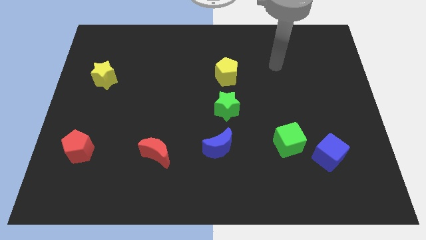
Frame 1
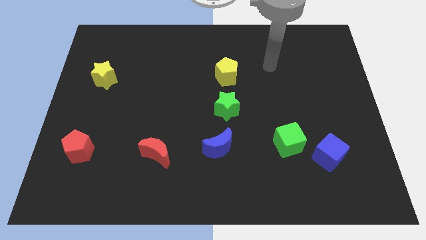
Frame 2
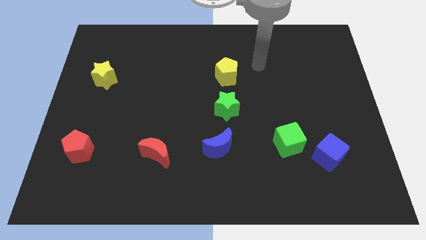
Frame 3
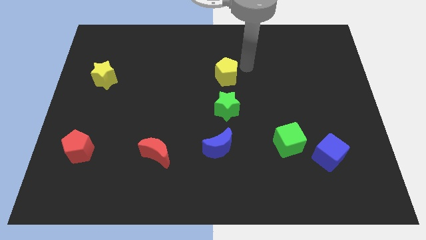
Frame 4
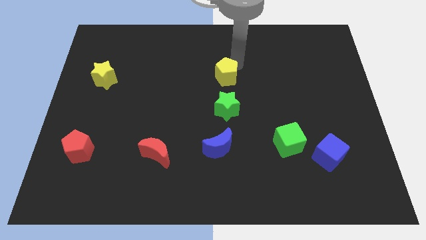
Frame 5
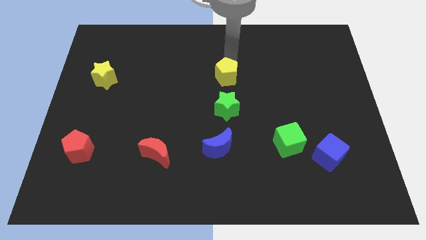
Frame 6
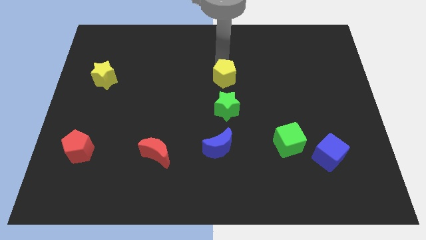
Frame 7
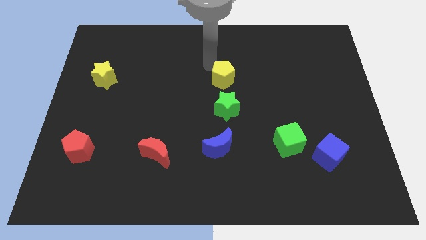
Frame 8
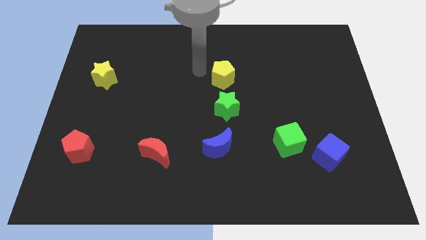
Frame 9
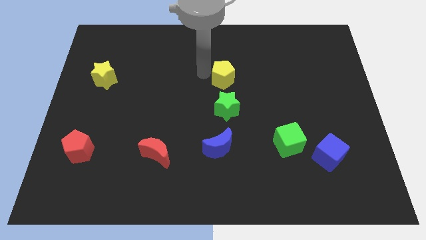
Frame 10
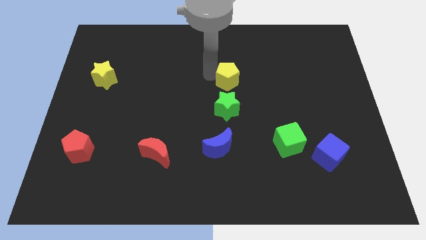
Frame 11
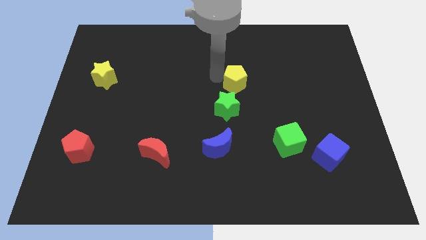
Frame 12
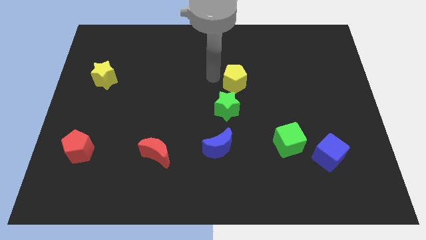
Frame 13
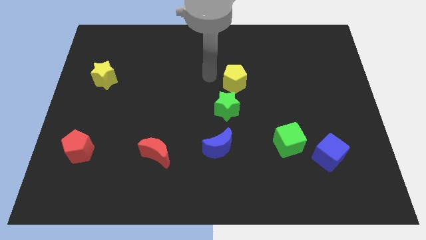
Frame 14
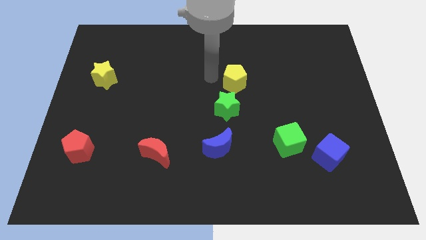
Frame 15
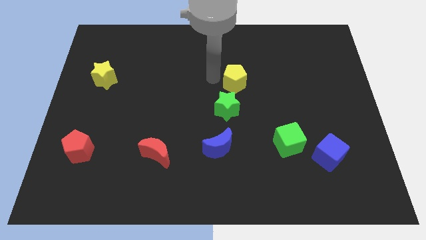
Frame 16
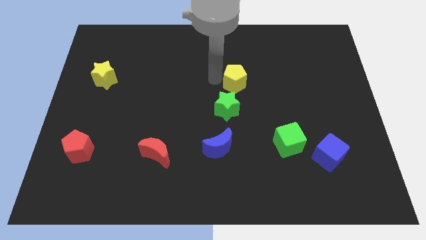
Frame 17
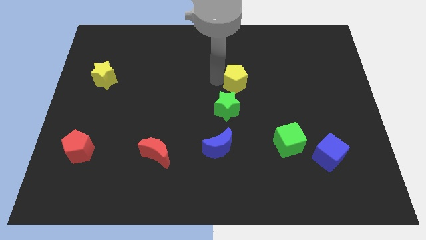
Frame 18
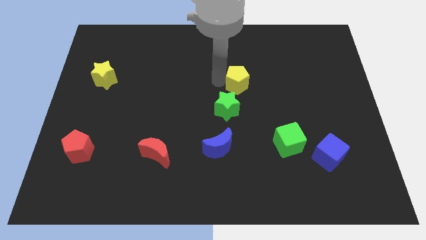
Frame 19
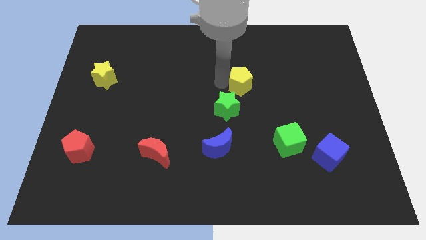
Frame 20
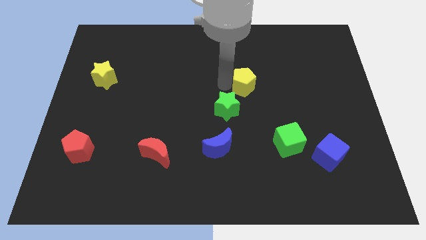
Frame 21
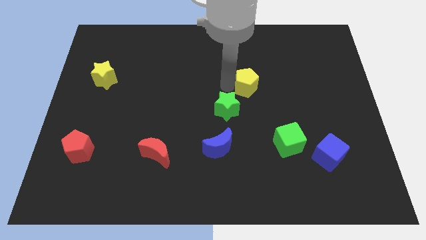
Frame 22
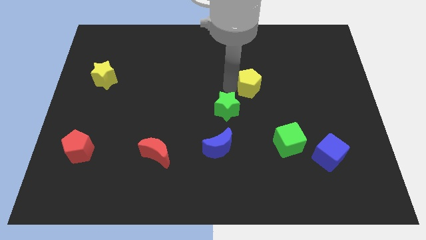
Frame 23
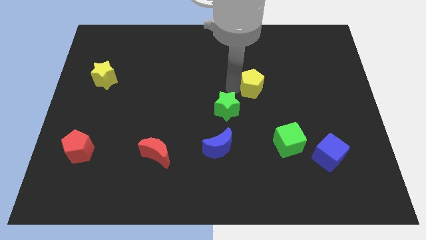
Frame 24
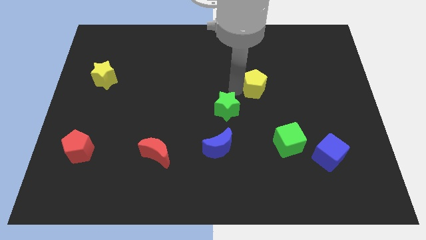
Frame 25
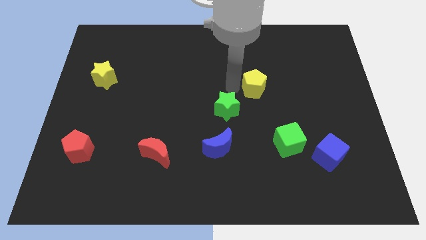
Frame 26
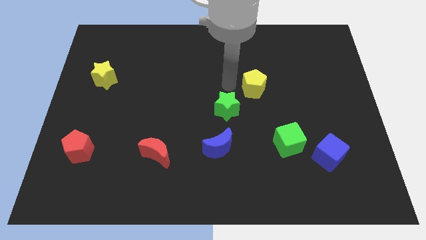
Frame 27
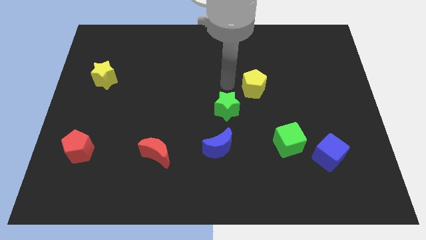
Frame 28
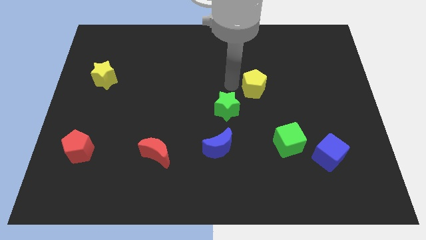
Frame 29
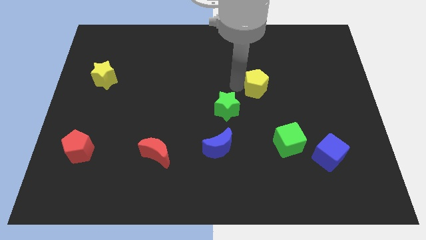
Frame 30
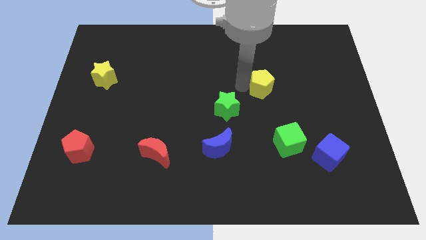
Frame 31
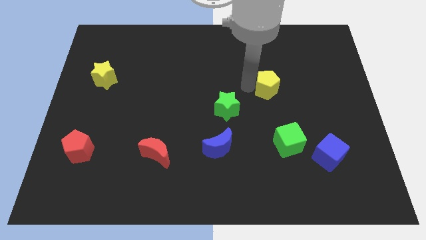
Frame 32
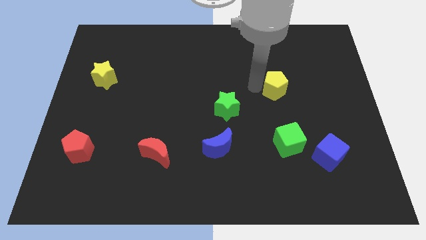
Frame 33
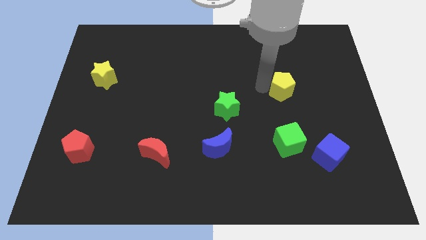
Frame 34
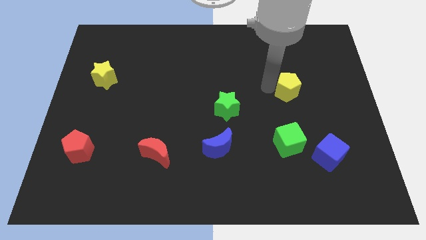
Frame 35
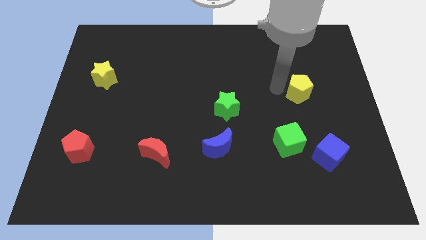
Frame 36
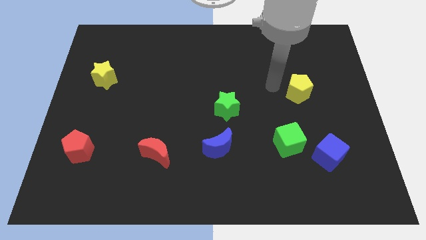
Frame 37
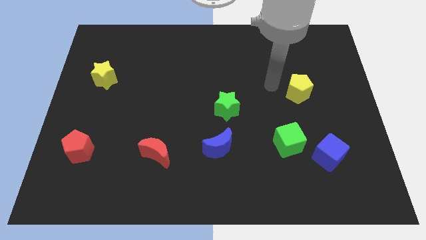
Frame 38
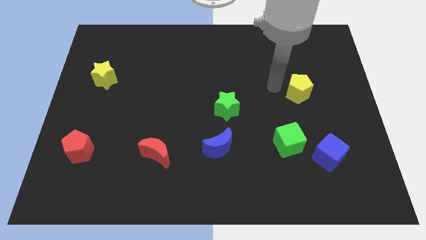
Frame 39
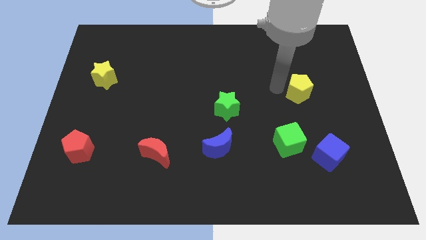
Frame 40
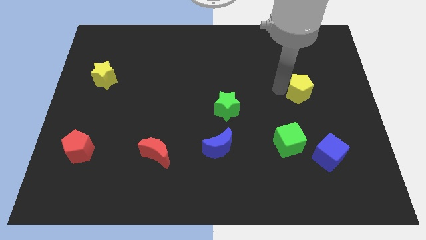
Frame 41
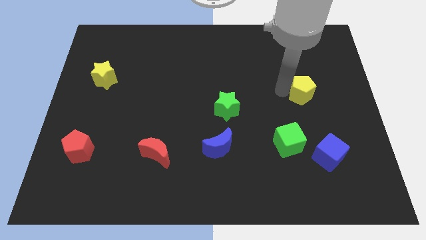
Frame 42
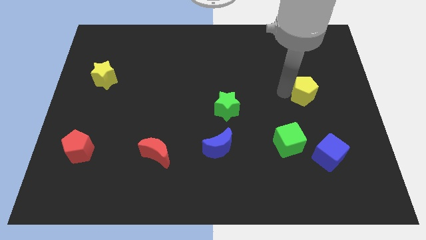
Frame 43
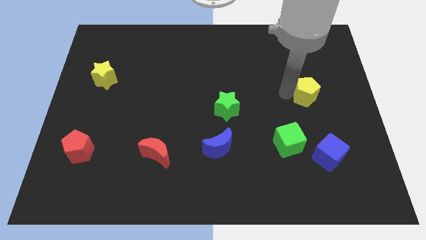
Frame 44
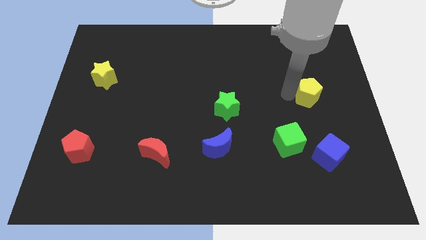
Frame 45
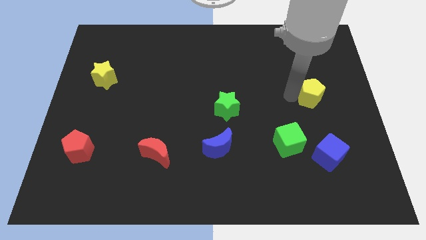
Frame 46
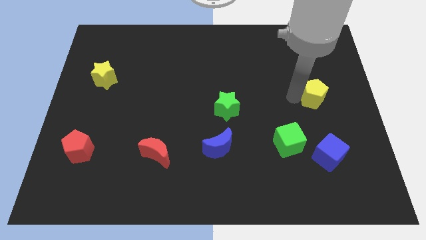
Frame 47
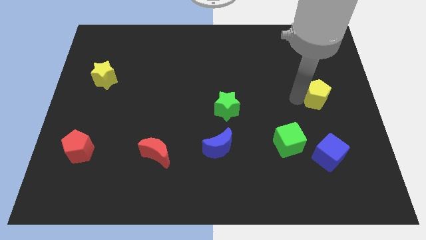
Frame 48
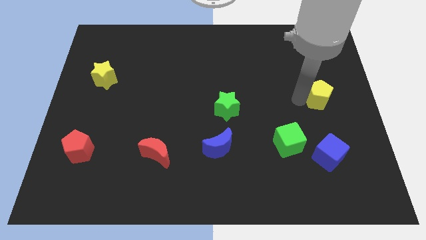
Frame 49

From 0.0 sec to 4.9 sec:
slide the yellow pentagon to the center right

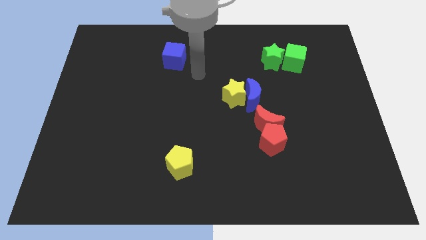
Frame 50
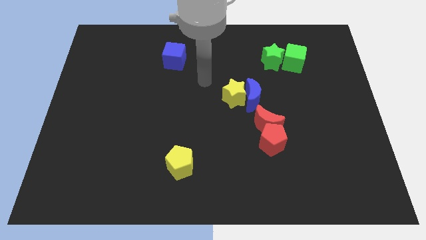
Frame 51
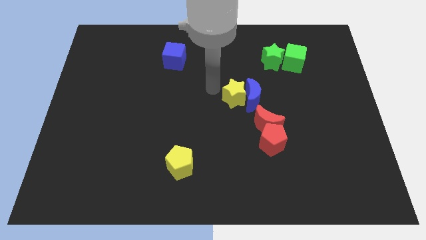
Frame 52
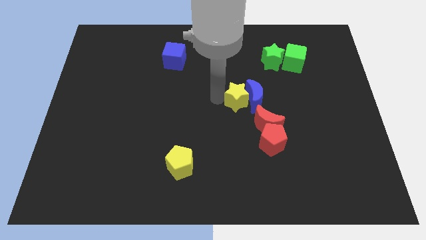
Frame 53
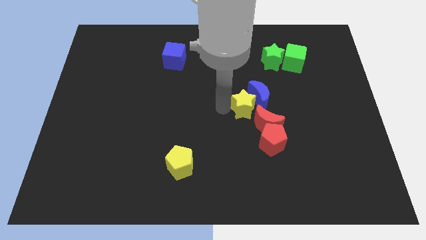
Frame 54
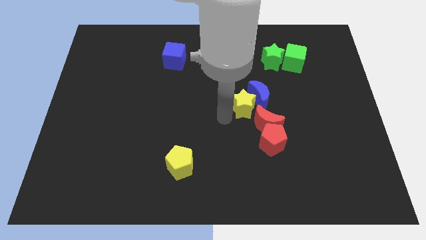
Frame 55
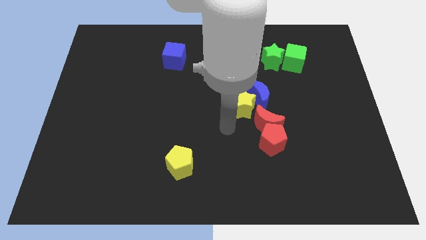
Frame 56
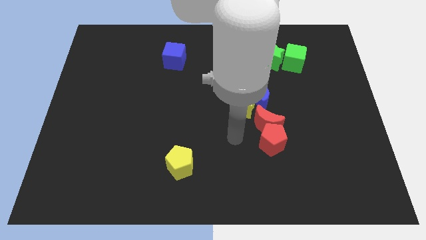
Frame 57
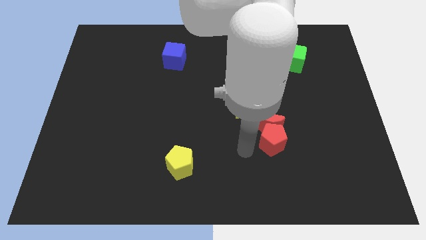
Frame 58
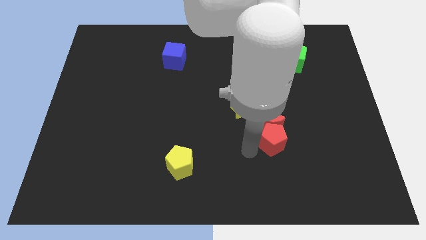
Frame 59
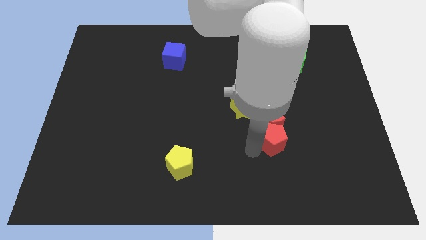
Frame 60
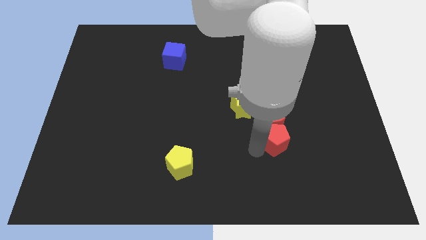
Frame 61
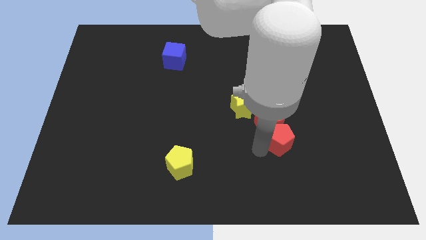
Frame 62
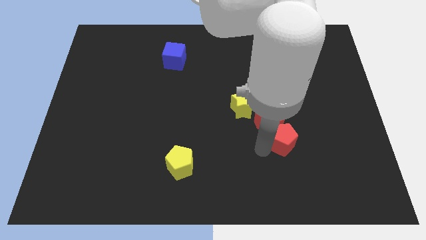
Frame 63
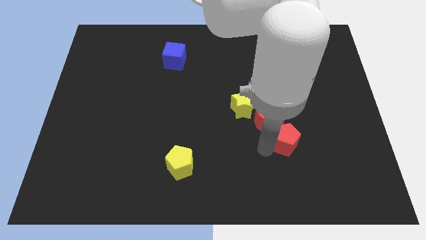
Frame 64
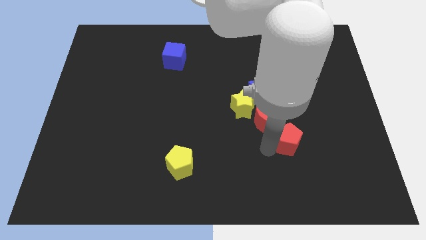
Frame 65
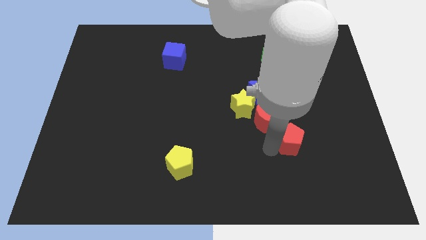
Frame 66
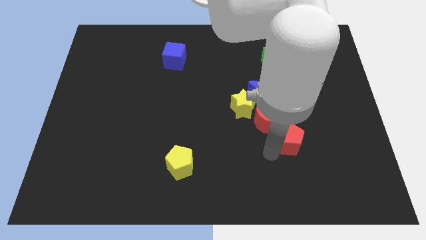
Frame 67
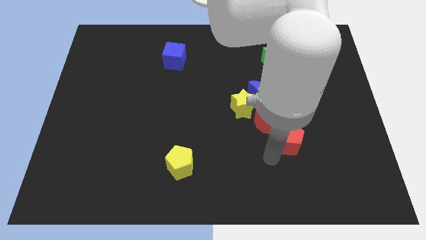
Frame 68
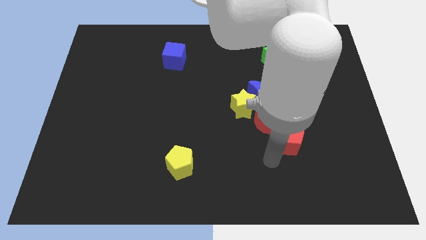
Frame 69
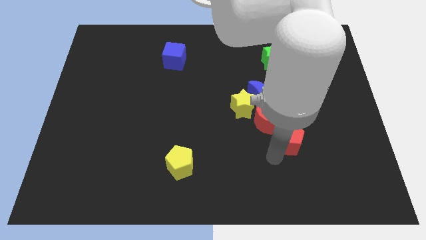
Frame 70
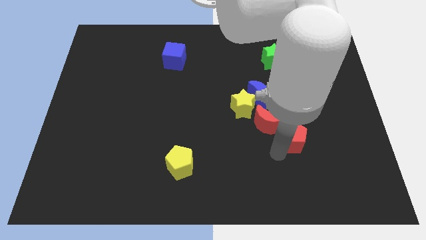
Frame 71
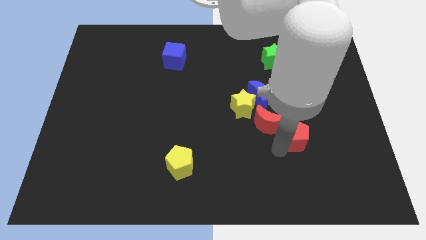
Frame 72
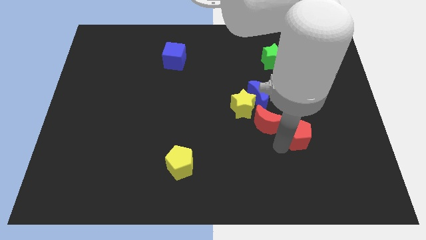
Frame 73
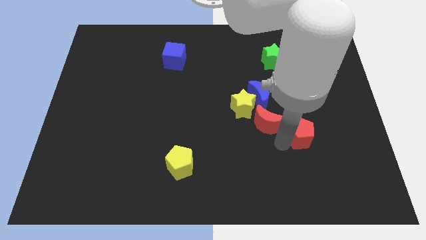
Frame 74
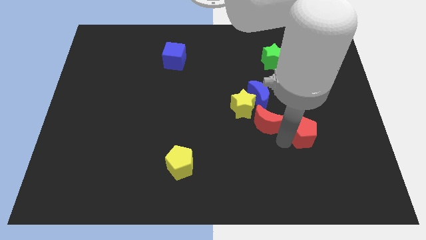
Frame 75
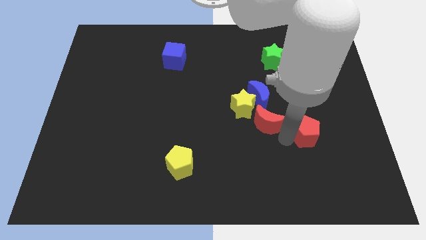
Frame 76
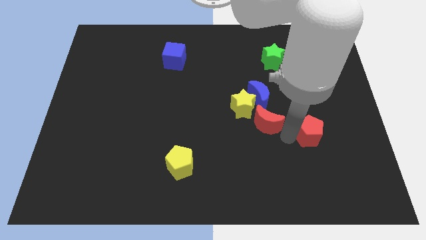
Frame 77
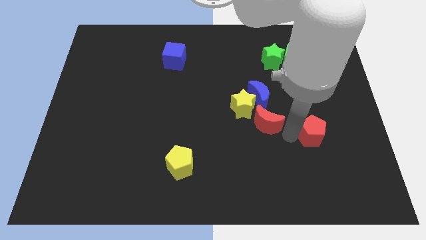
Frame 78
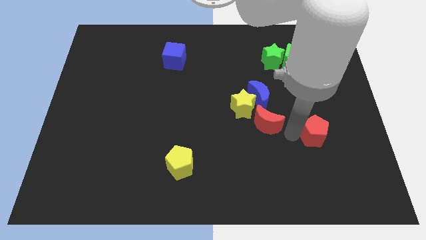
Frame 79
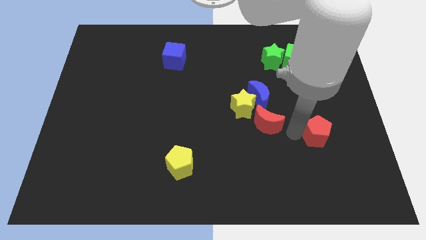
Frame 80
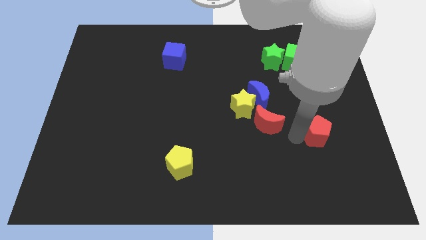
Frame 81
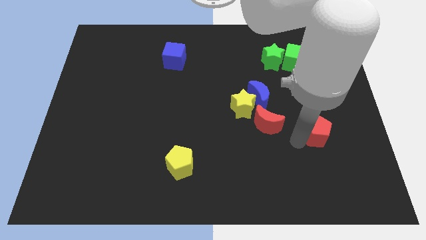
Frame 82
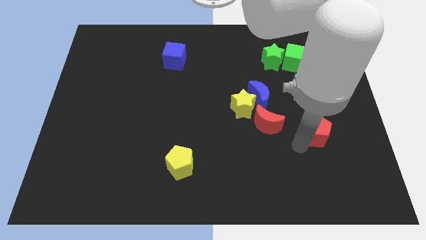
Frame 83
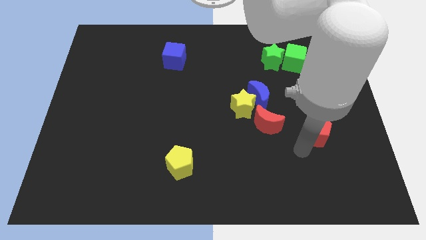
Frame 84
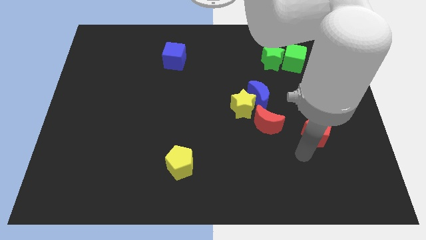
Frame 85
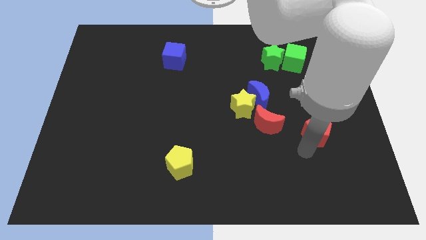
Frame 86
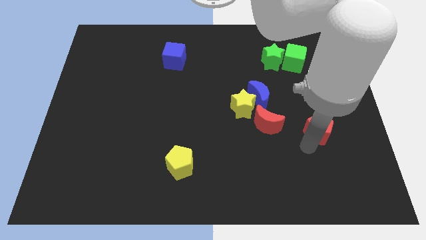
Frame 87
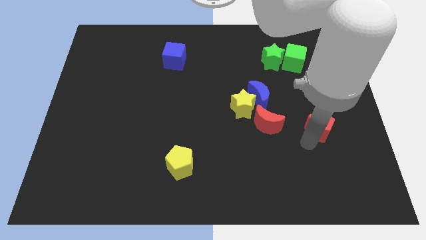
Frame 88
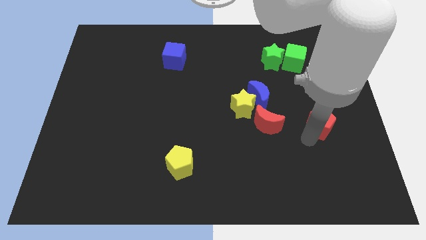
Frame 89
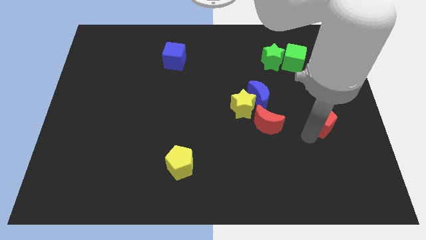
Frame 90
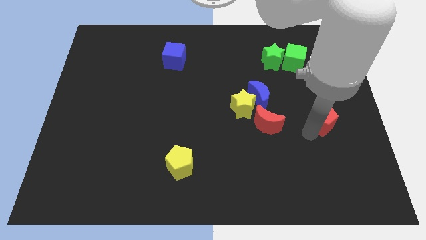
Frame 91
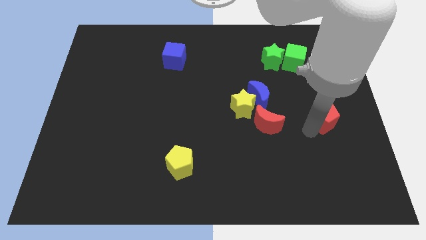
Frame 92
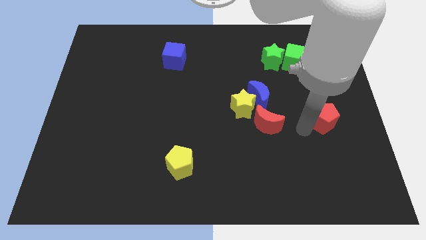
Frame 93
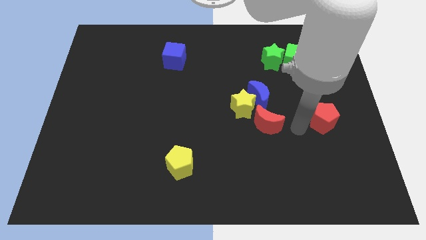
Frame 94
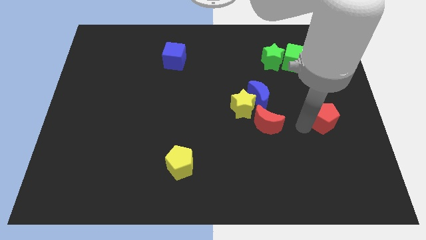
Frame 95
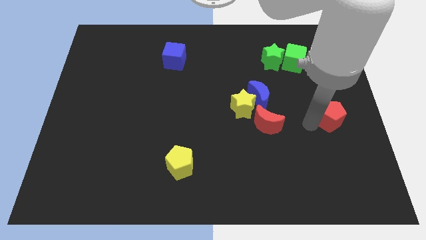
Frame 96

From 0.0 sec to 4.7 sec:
put the red pentagon to the right side of the board
